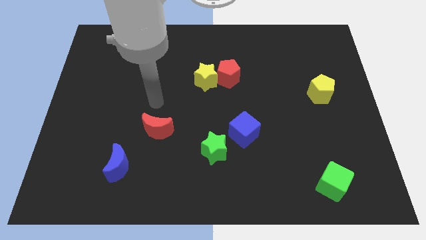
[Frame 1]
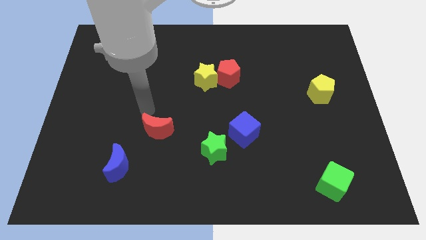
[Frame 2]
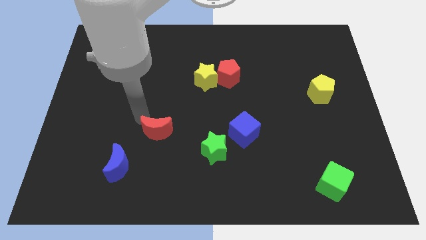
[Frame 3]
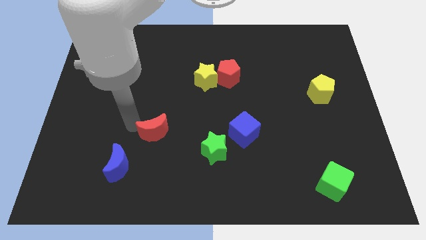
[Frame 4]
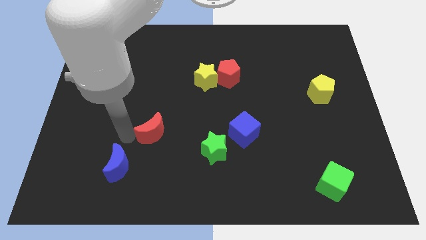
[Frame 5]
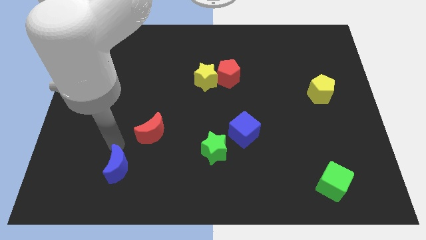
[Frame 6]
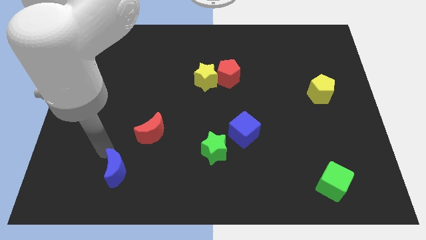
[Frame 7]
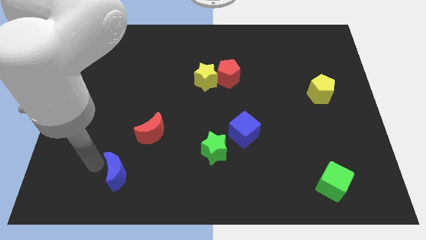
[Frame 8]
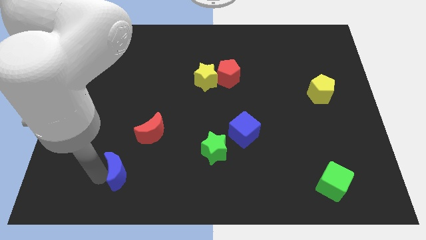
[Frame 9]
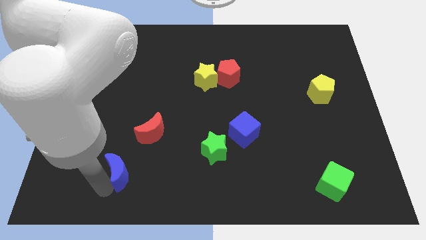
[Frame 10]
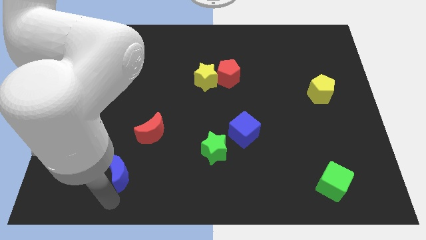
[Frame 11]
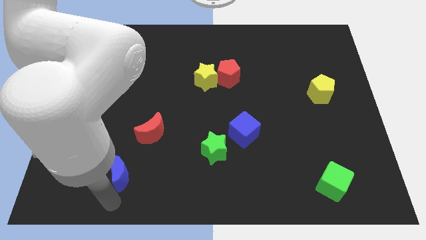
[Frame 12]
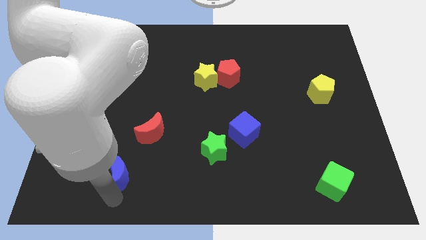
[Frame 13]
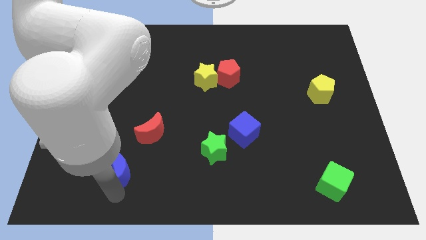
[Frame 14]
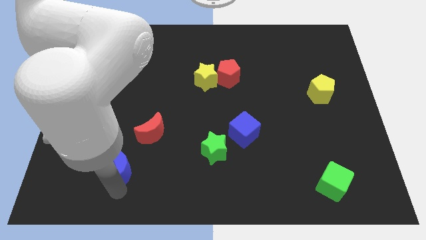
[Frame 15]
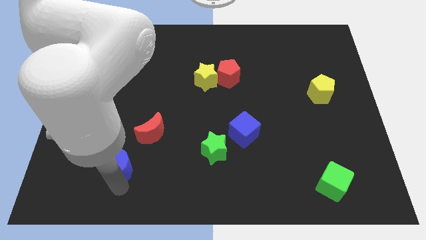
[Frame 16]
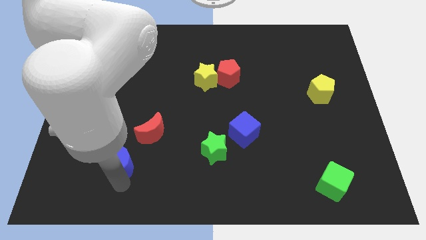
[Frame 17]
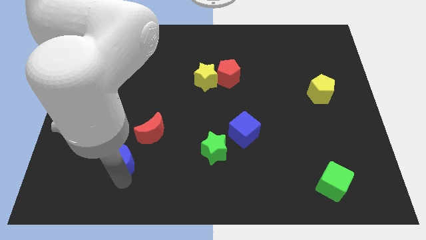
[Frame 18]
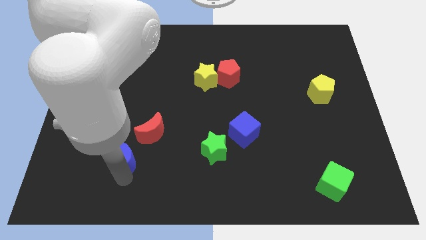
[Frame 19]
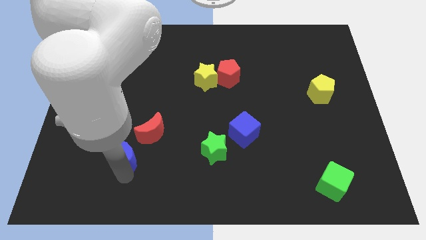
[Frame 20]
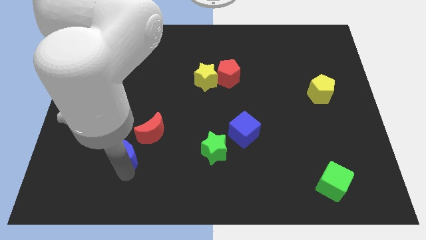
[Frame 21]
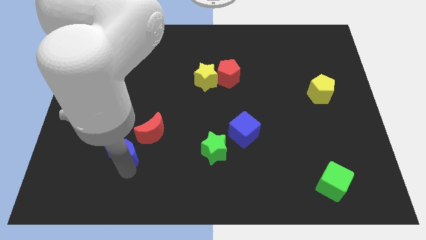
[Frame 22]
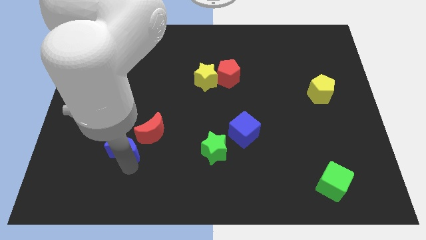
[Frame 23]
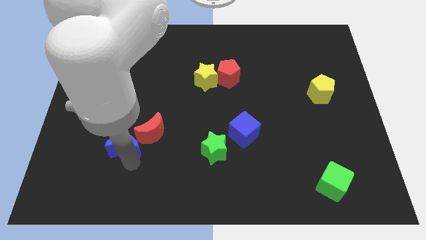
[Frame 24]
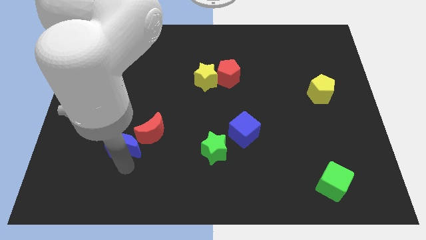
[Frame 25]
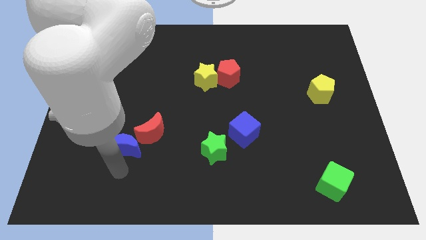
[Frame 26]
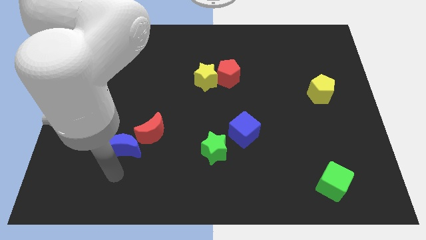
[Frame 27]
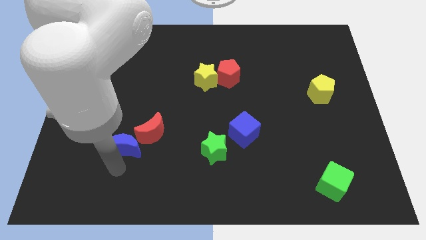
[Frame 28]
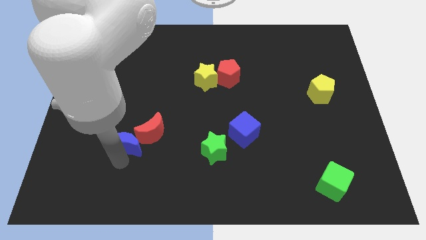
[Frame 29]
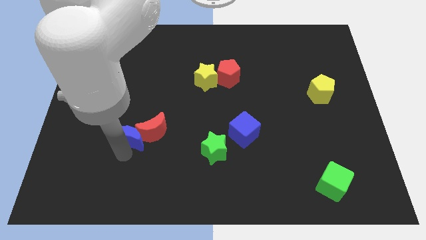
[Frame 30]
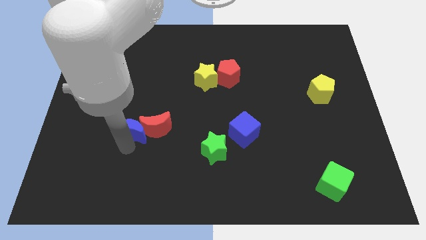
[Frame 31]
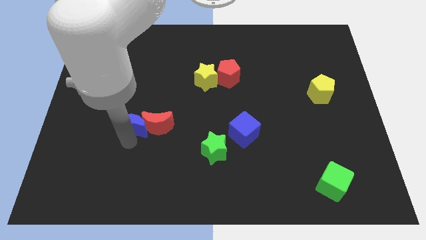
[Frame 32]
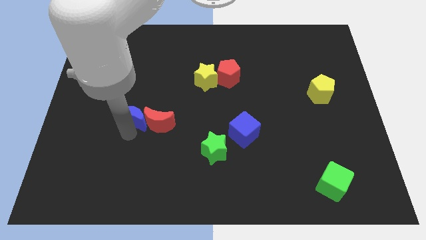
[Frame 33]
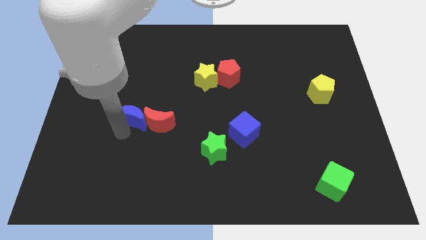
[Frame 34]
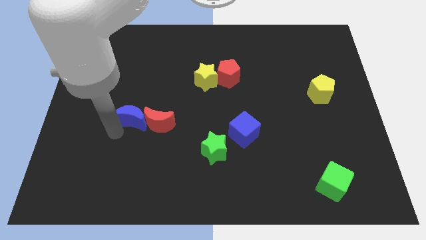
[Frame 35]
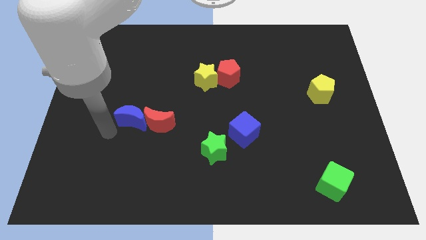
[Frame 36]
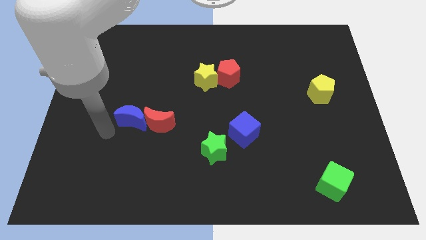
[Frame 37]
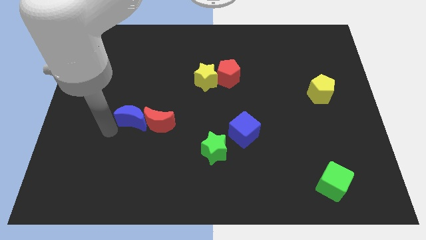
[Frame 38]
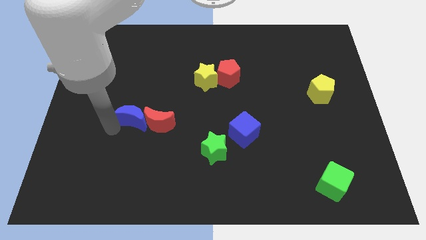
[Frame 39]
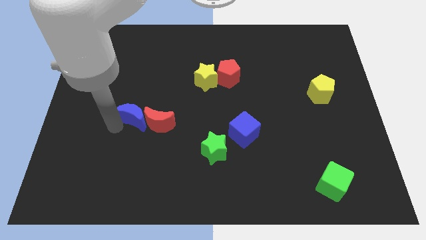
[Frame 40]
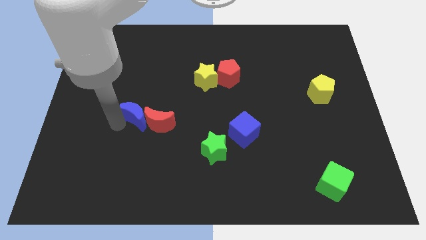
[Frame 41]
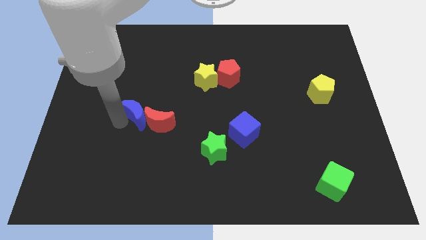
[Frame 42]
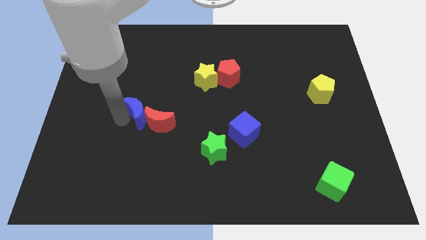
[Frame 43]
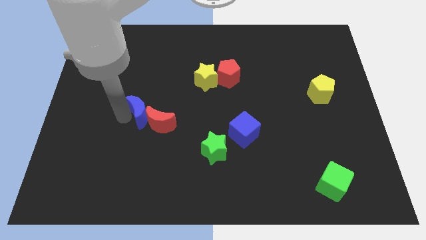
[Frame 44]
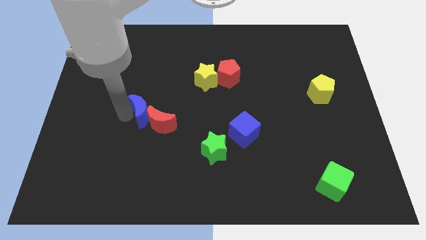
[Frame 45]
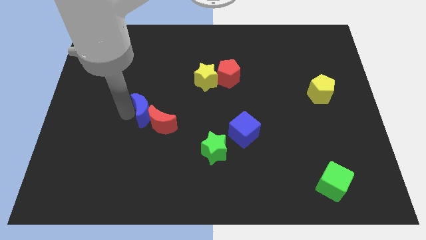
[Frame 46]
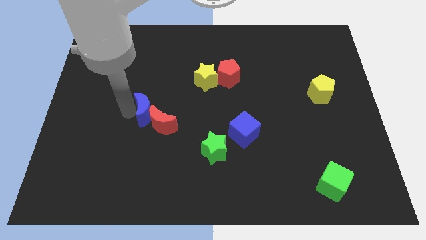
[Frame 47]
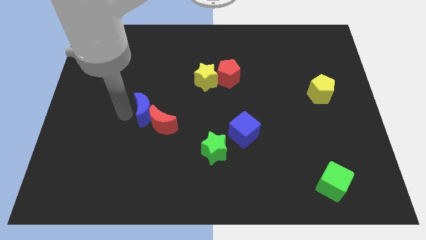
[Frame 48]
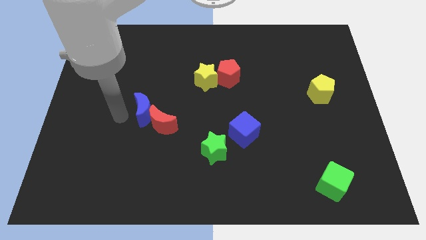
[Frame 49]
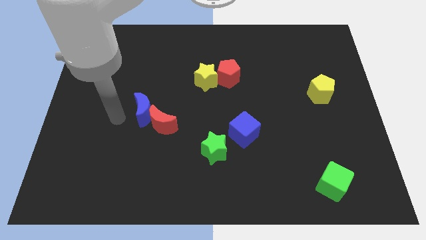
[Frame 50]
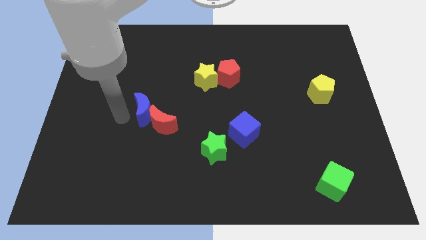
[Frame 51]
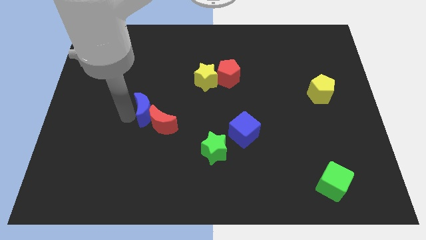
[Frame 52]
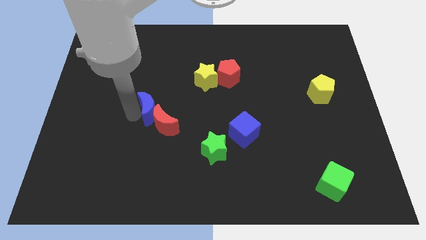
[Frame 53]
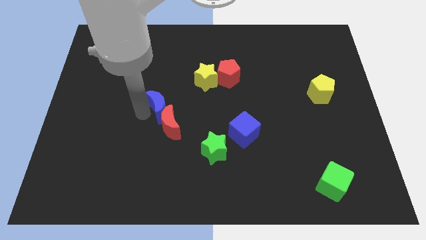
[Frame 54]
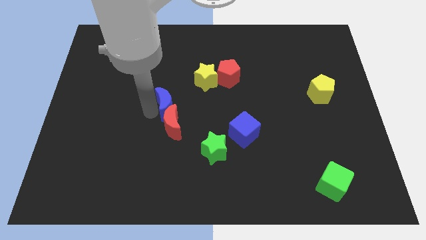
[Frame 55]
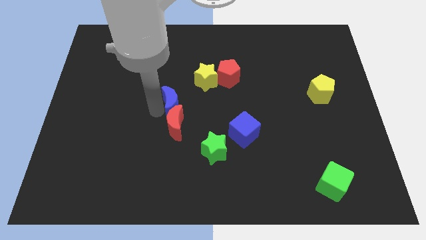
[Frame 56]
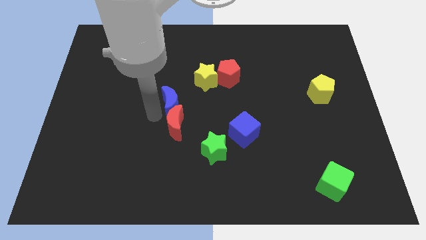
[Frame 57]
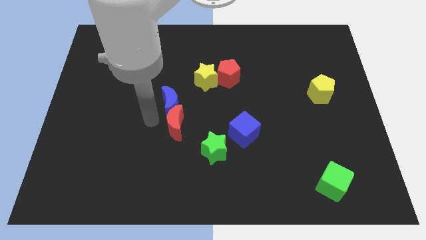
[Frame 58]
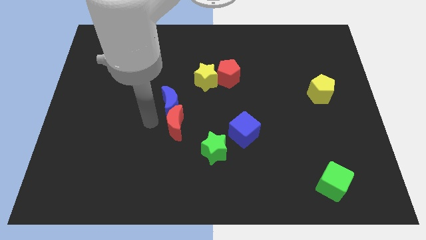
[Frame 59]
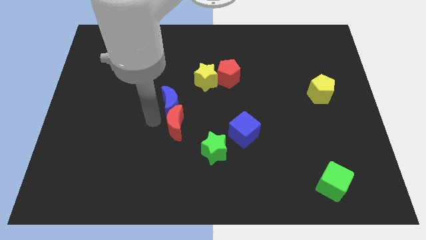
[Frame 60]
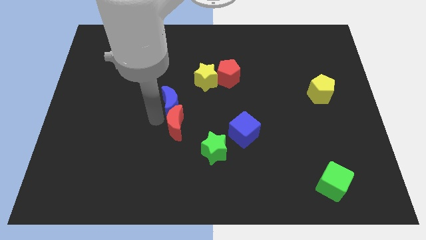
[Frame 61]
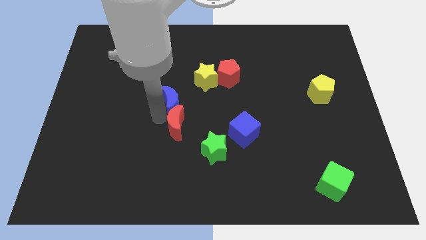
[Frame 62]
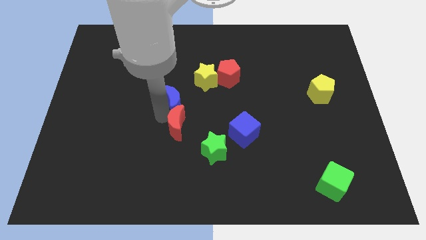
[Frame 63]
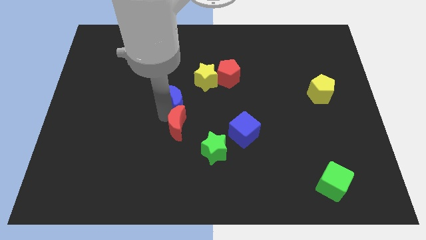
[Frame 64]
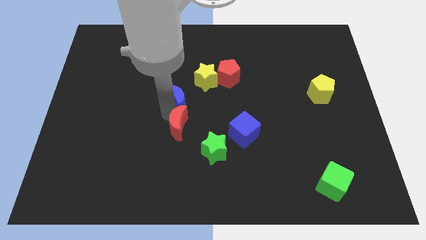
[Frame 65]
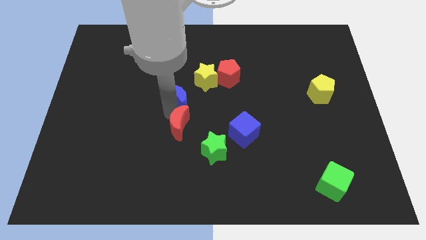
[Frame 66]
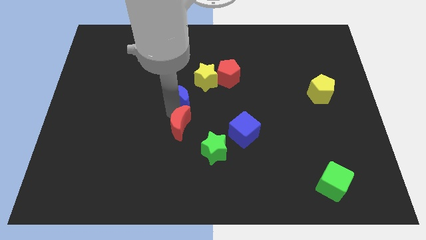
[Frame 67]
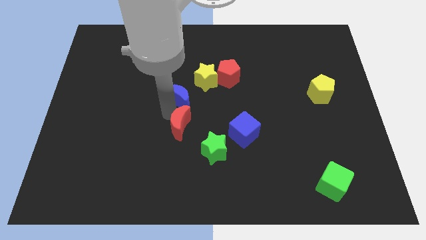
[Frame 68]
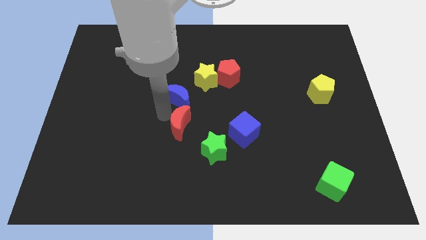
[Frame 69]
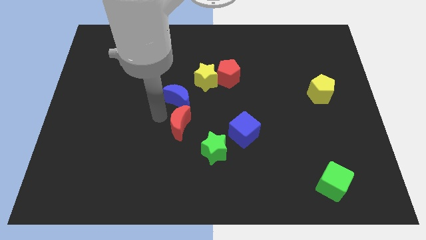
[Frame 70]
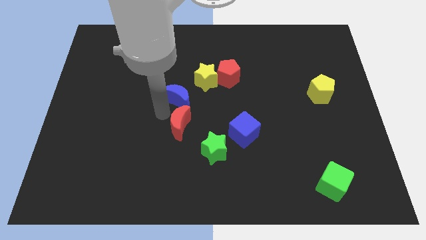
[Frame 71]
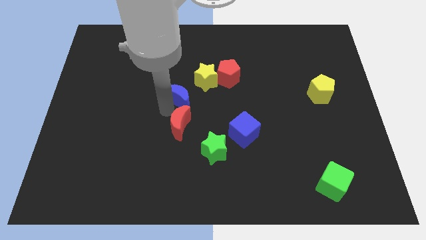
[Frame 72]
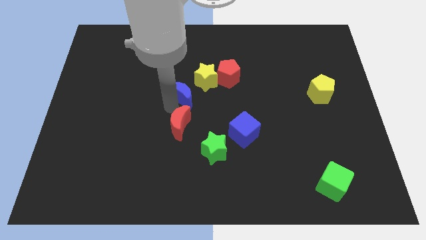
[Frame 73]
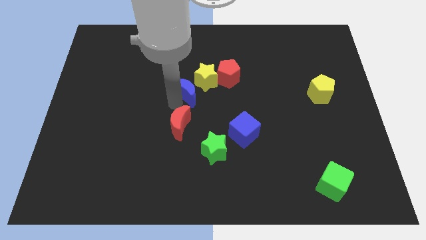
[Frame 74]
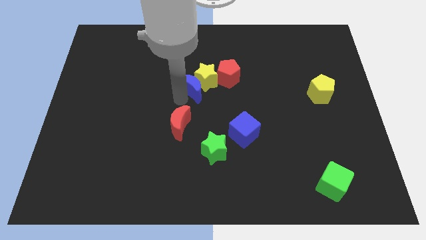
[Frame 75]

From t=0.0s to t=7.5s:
slide the blue moon next to the yellow star
